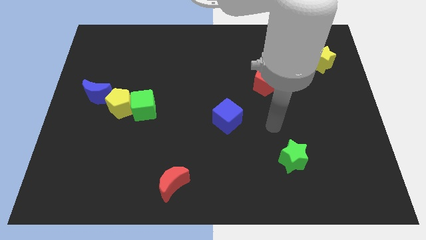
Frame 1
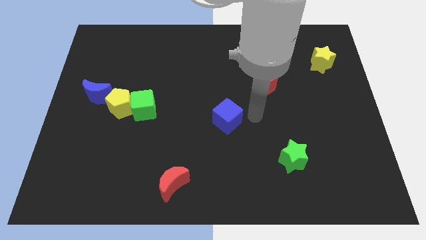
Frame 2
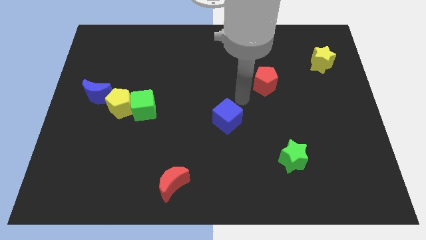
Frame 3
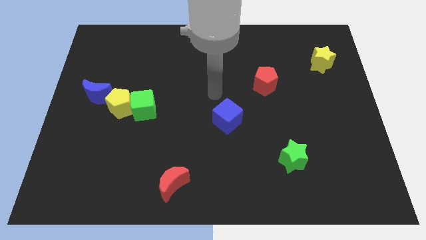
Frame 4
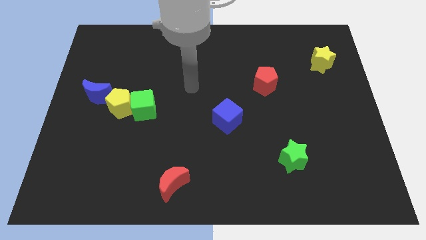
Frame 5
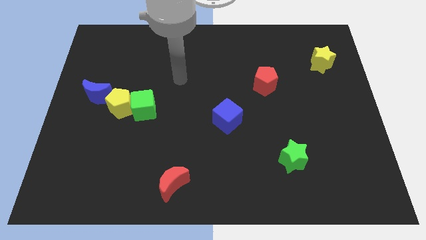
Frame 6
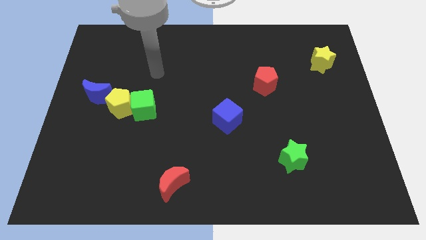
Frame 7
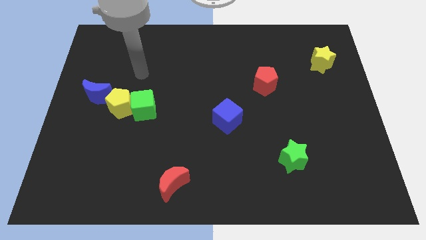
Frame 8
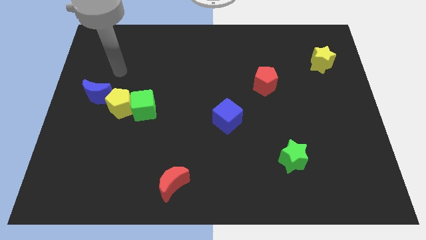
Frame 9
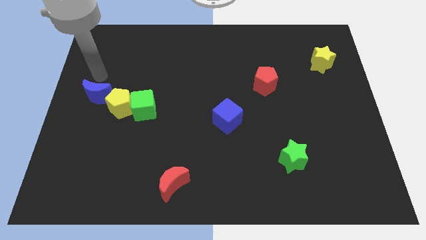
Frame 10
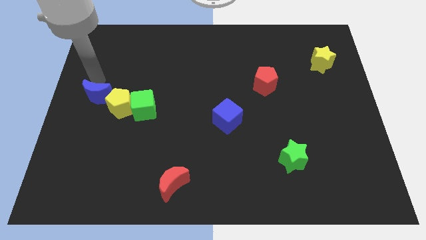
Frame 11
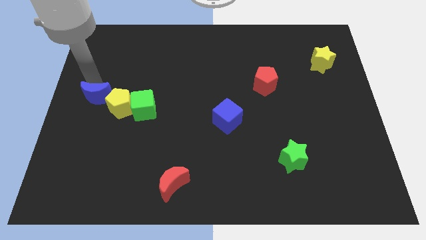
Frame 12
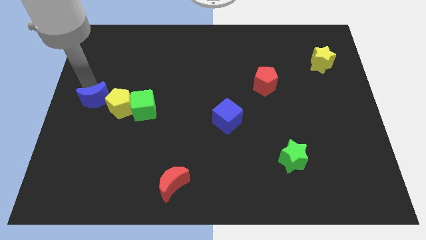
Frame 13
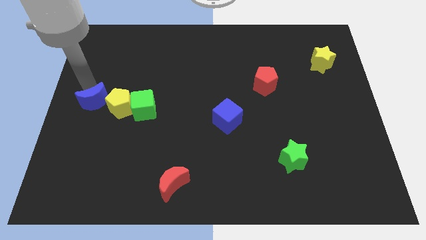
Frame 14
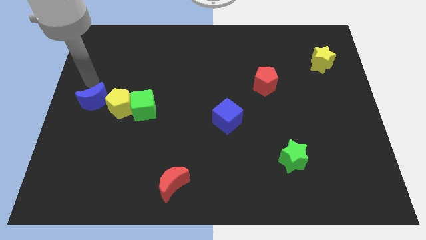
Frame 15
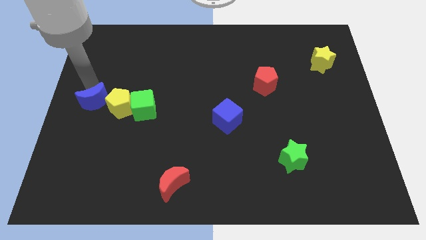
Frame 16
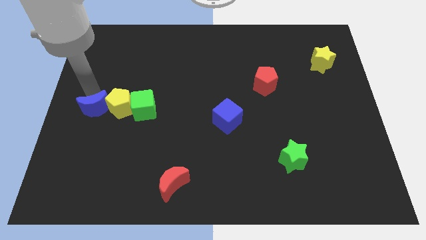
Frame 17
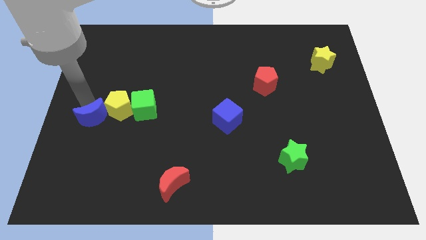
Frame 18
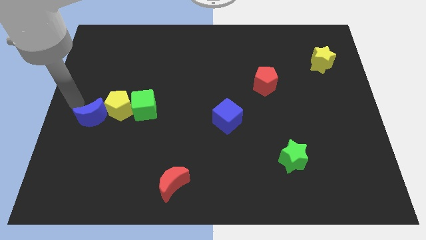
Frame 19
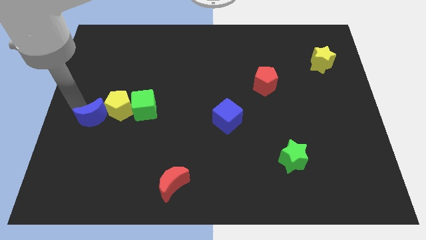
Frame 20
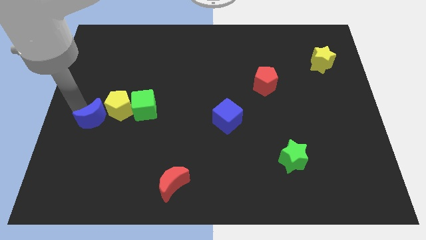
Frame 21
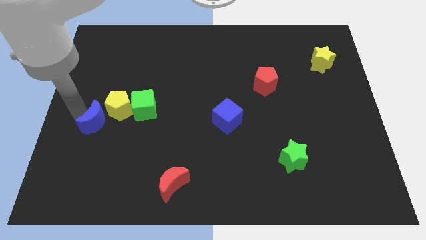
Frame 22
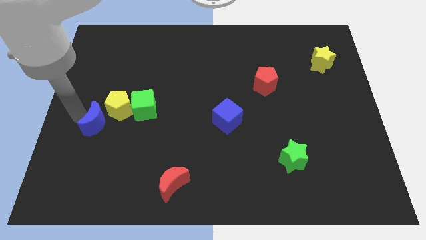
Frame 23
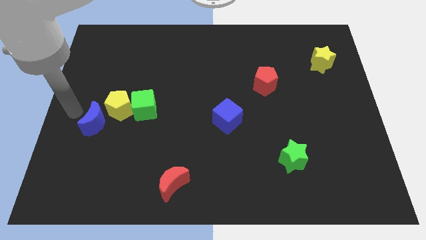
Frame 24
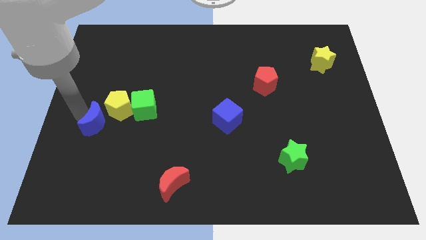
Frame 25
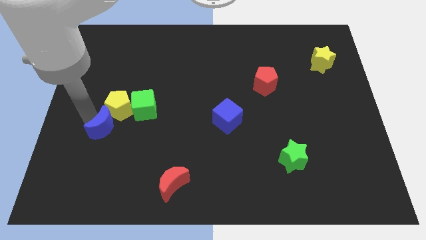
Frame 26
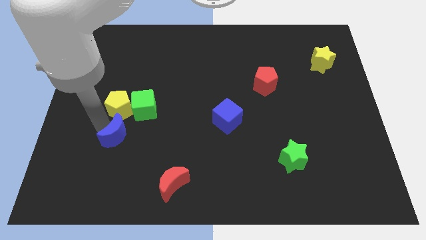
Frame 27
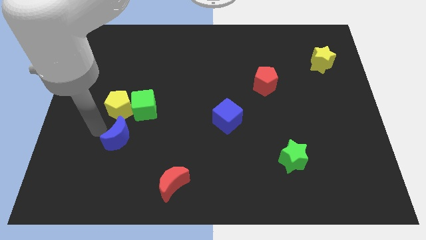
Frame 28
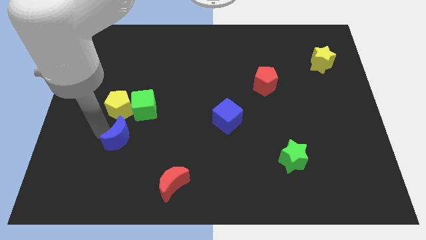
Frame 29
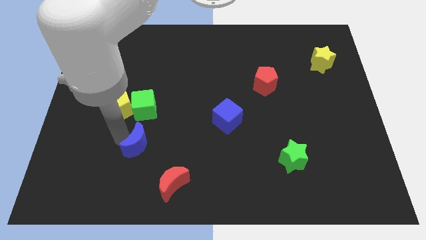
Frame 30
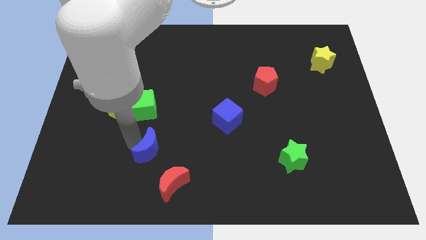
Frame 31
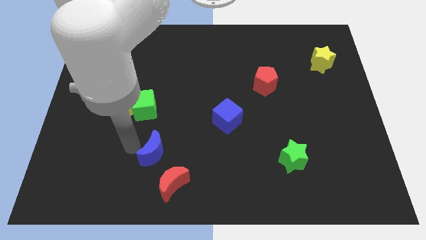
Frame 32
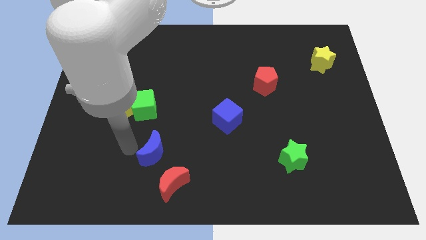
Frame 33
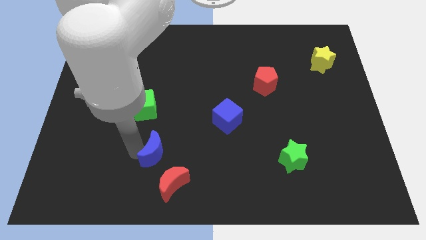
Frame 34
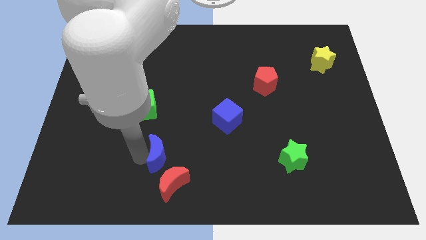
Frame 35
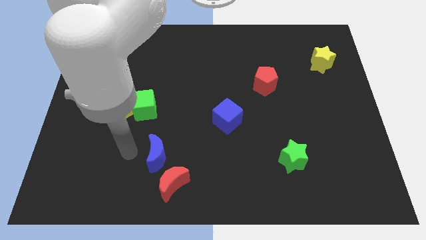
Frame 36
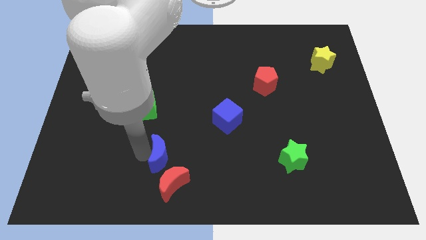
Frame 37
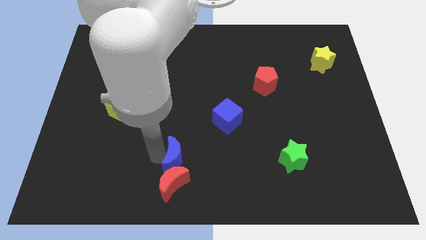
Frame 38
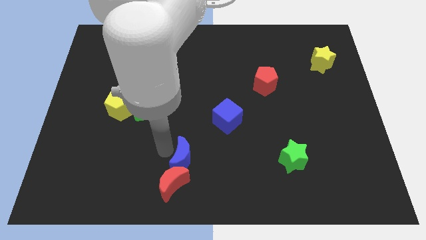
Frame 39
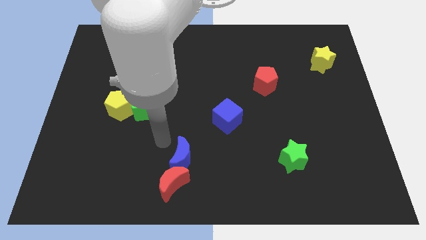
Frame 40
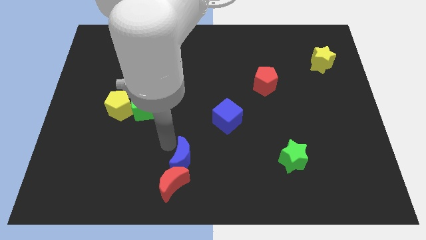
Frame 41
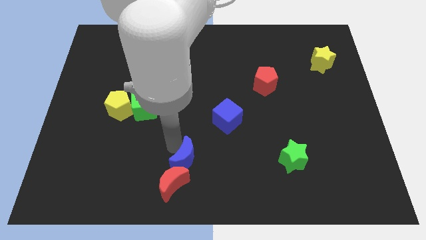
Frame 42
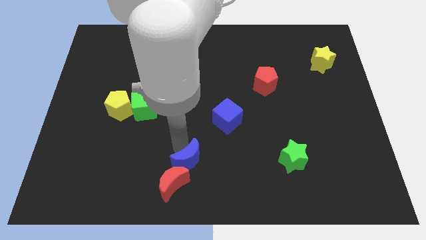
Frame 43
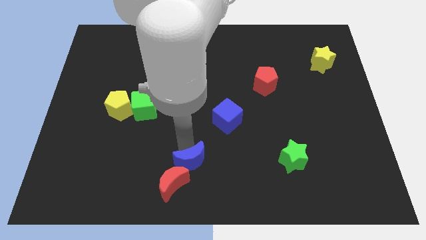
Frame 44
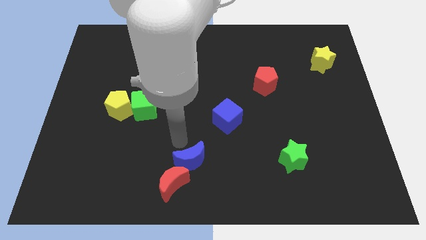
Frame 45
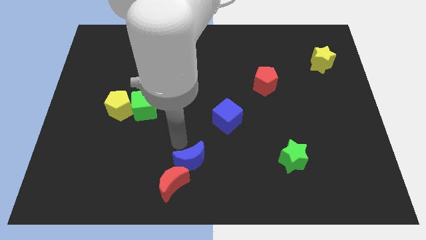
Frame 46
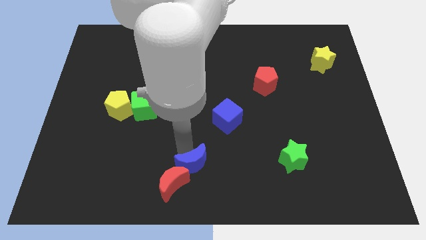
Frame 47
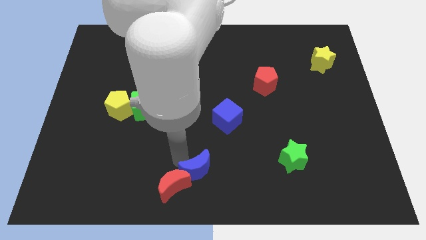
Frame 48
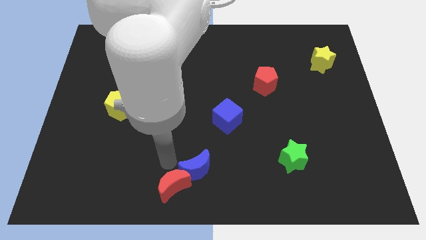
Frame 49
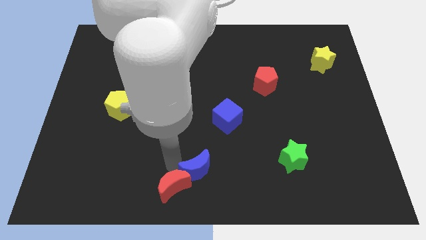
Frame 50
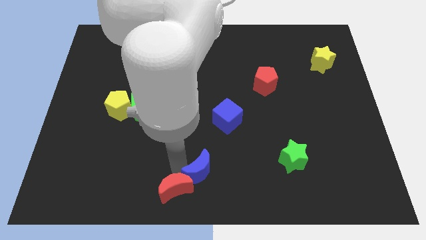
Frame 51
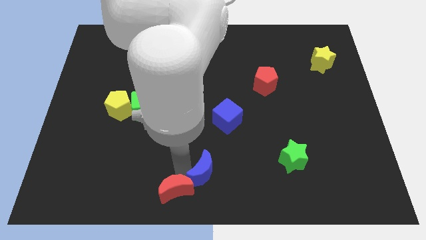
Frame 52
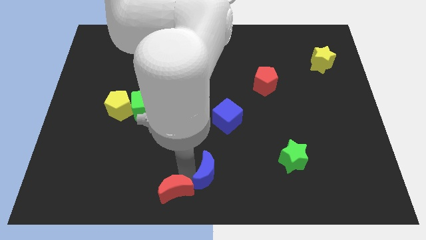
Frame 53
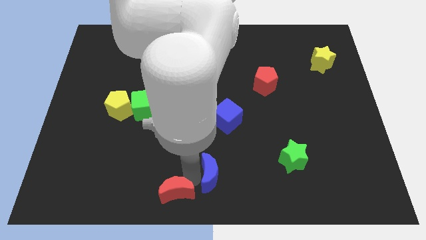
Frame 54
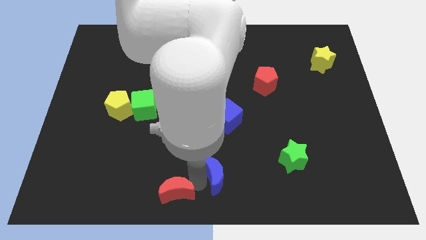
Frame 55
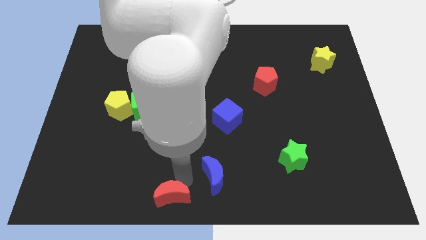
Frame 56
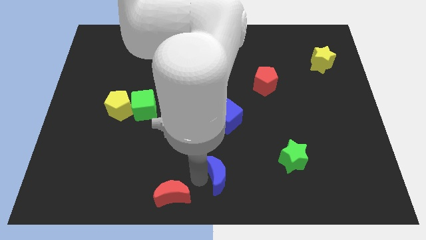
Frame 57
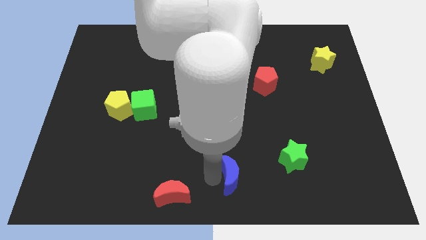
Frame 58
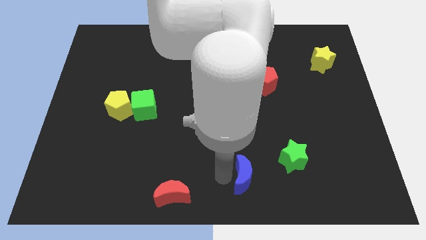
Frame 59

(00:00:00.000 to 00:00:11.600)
put the blue moon diagonally down and to the left of the green star
